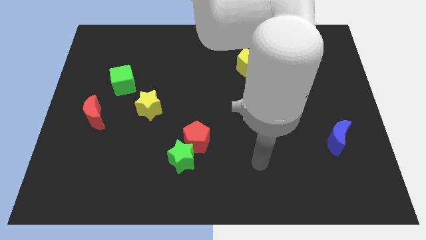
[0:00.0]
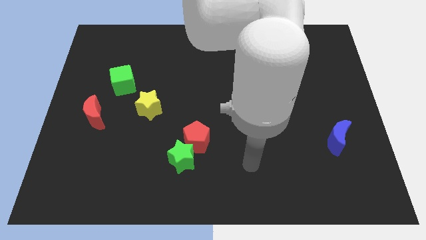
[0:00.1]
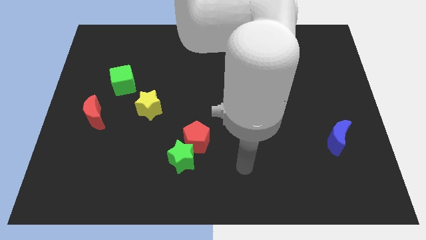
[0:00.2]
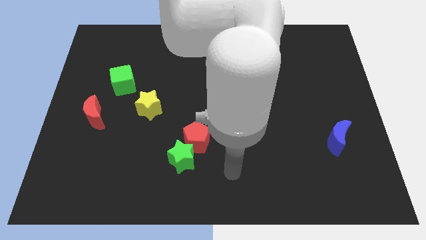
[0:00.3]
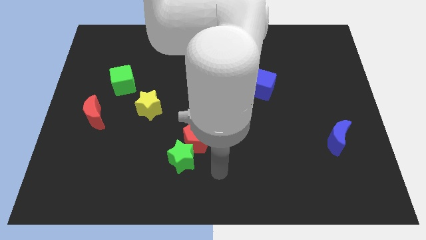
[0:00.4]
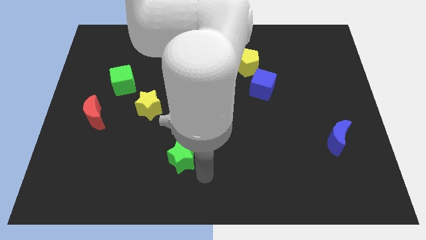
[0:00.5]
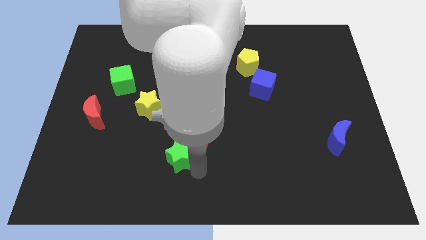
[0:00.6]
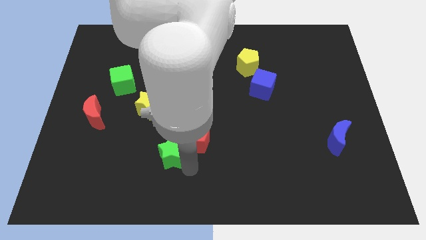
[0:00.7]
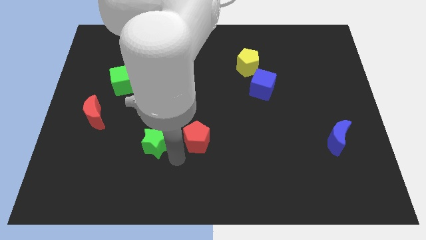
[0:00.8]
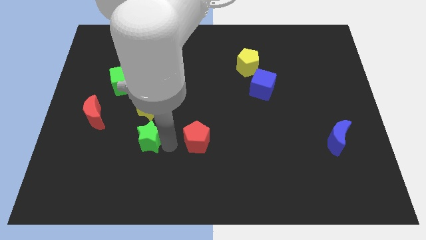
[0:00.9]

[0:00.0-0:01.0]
separate the red pentagon from the green star

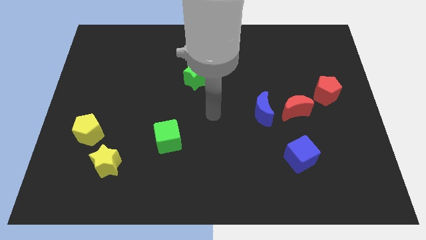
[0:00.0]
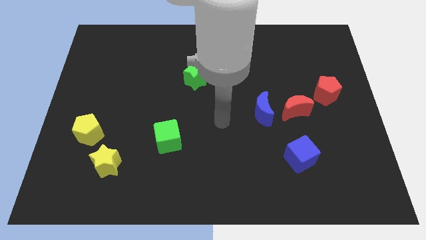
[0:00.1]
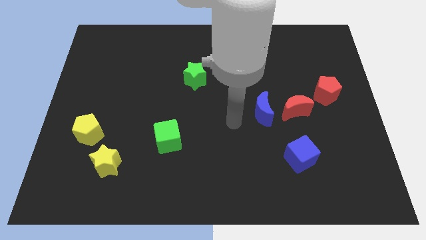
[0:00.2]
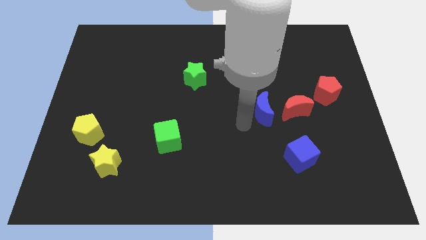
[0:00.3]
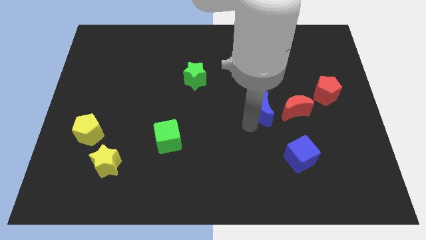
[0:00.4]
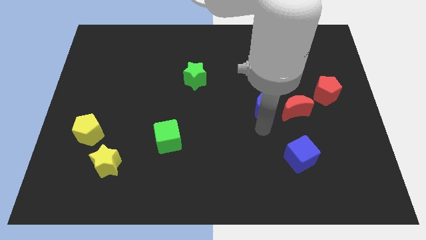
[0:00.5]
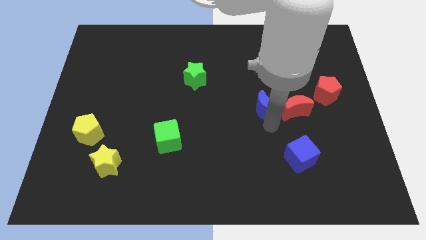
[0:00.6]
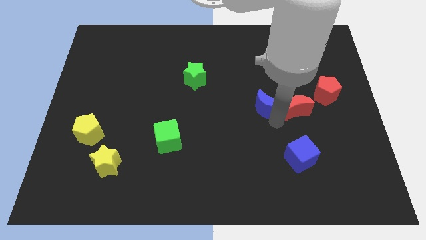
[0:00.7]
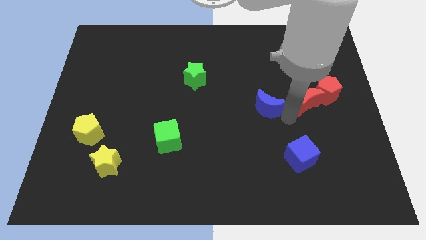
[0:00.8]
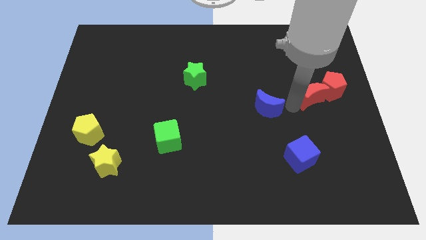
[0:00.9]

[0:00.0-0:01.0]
move the blue moon away from the red moon

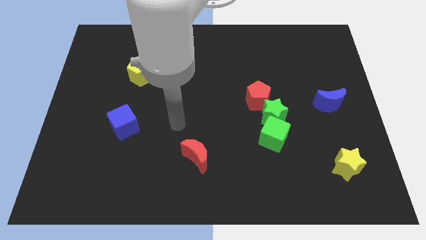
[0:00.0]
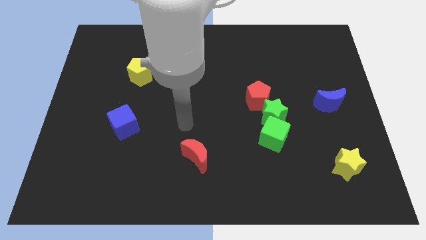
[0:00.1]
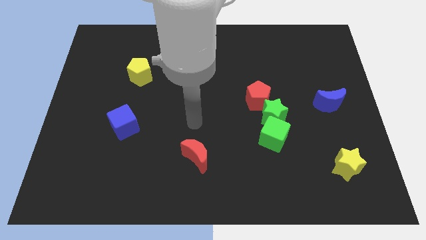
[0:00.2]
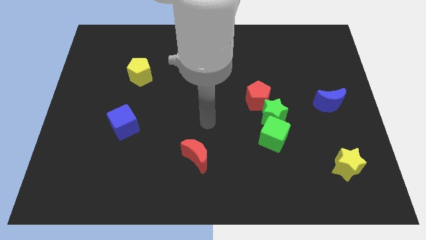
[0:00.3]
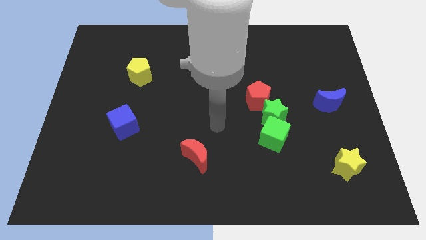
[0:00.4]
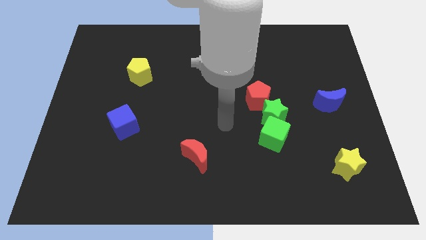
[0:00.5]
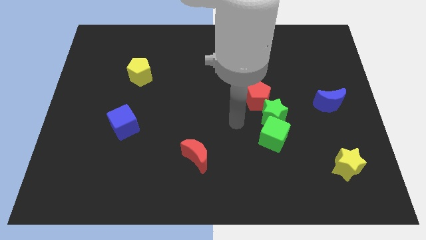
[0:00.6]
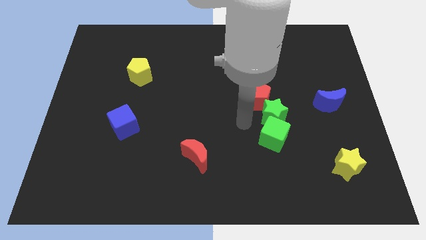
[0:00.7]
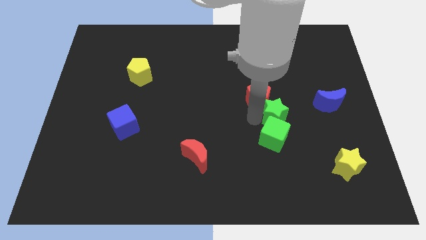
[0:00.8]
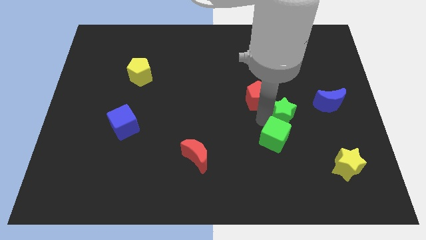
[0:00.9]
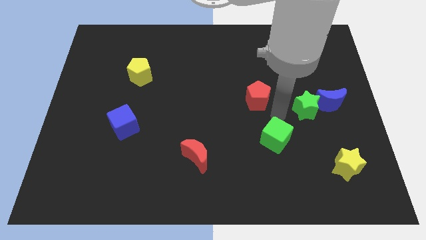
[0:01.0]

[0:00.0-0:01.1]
pull the red pentagon apart from the green star

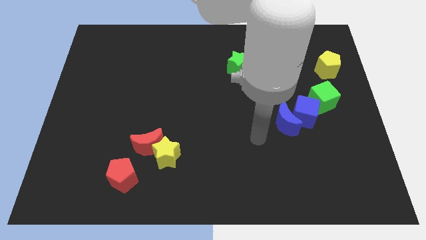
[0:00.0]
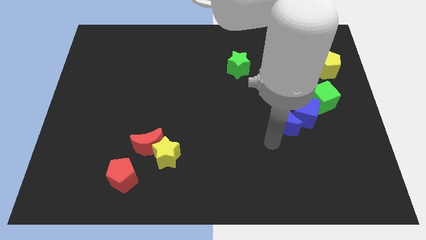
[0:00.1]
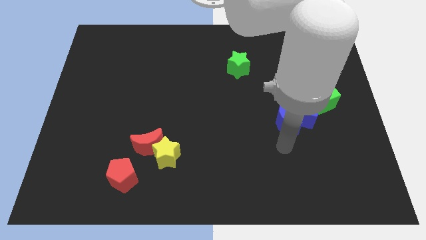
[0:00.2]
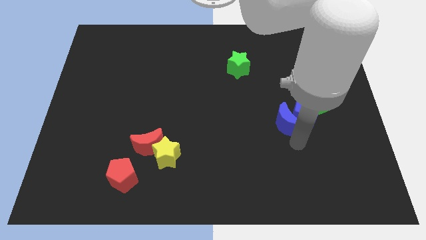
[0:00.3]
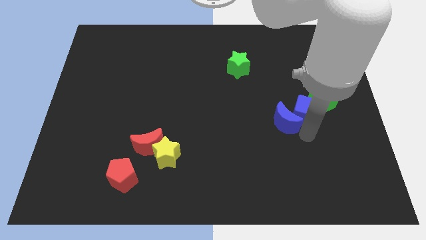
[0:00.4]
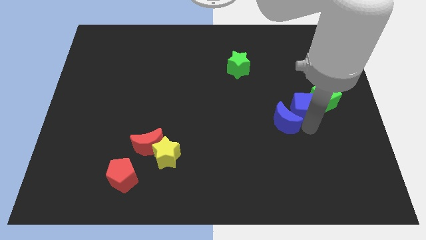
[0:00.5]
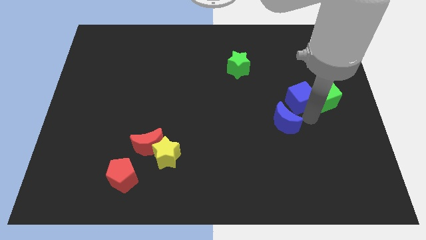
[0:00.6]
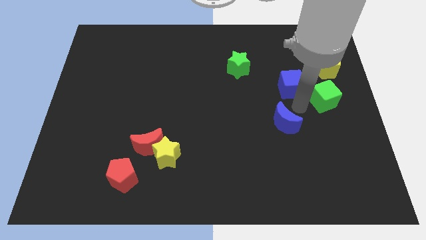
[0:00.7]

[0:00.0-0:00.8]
separate the blue moon from the blue cube

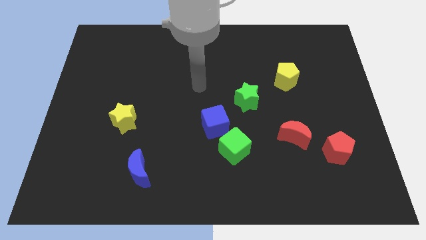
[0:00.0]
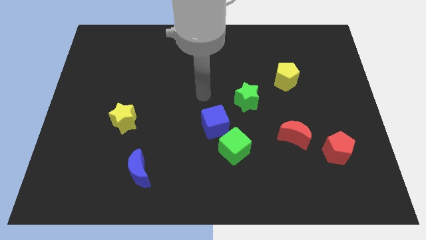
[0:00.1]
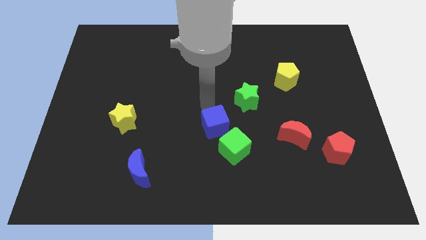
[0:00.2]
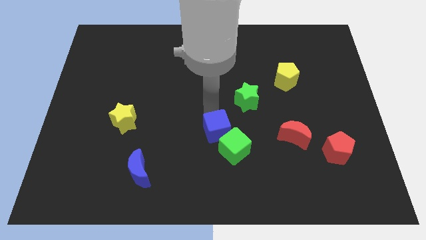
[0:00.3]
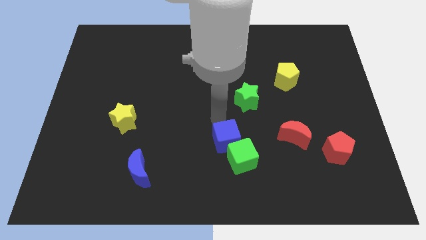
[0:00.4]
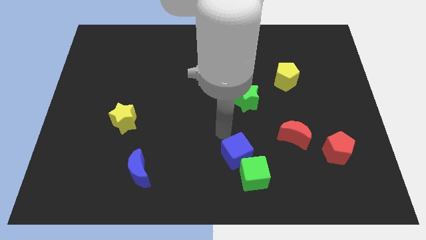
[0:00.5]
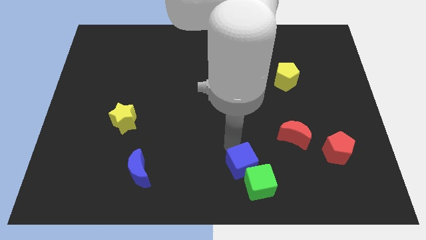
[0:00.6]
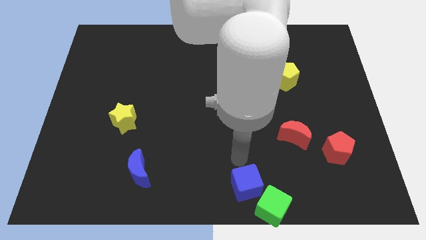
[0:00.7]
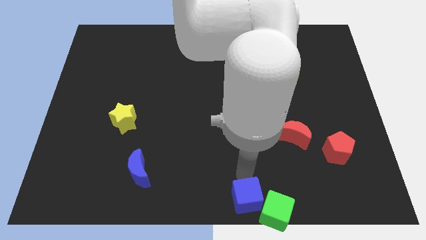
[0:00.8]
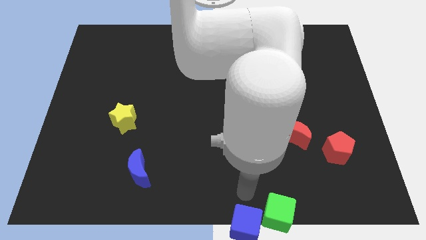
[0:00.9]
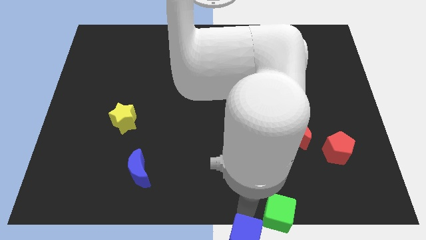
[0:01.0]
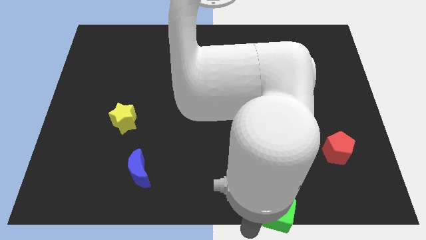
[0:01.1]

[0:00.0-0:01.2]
separate the green cube from the blue cube

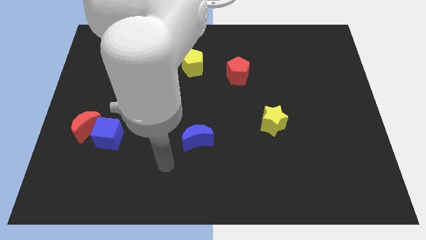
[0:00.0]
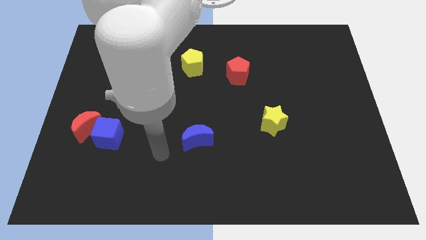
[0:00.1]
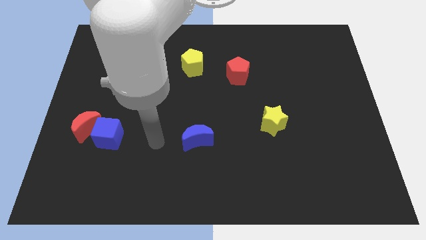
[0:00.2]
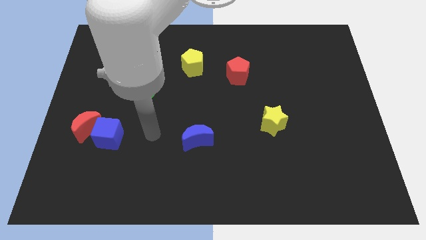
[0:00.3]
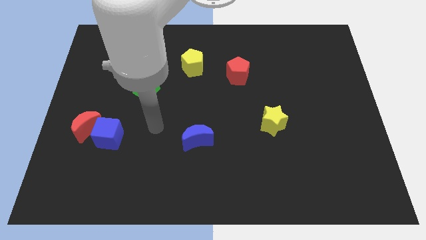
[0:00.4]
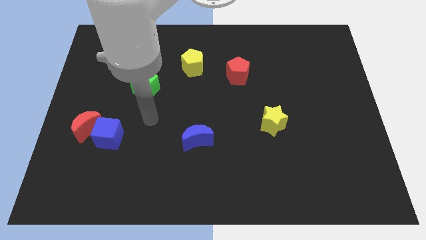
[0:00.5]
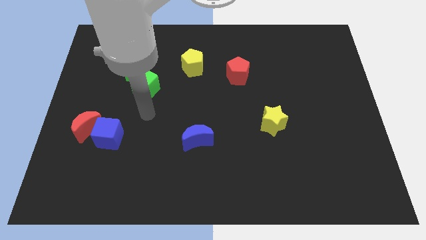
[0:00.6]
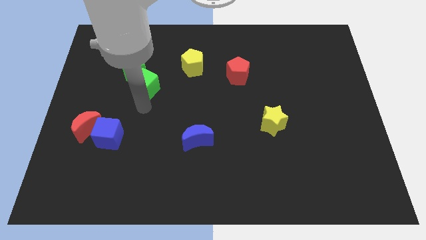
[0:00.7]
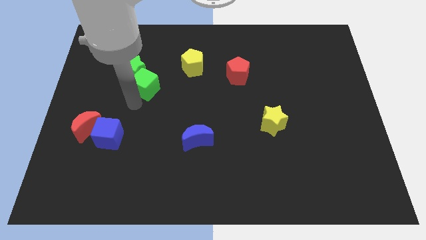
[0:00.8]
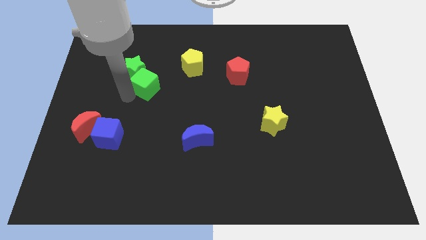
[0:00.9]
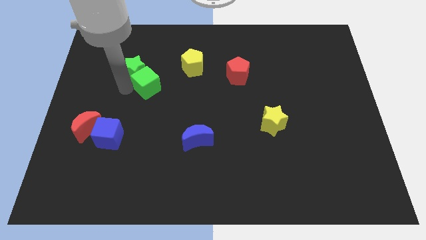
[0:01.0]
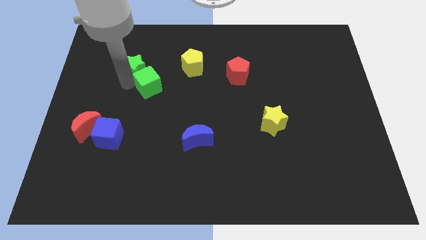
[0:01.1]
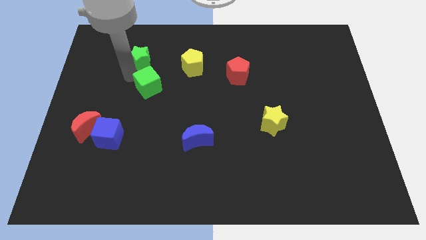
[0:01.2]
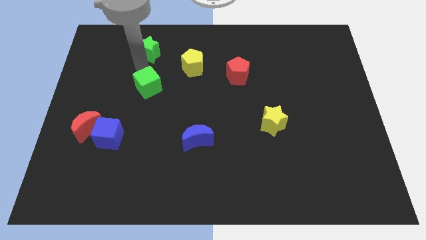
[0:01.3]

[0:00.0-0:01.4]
separate the green cube from the green star

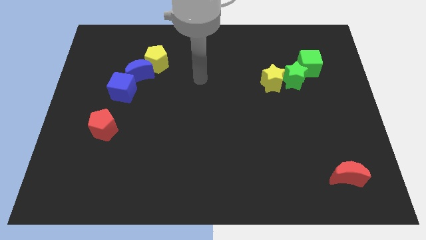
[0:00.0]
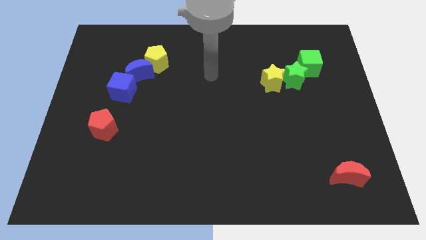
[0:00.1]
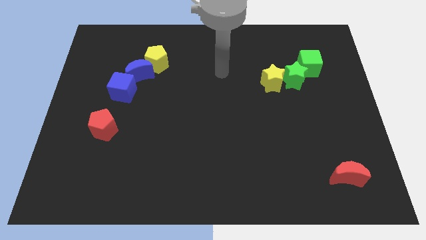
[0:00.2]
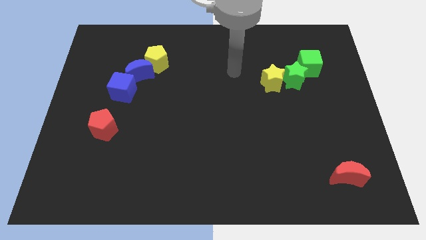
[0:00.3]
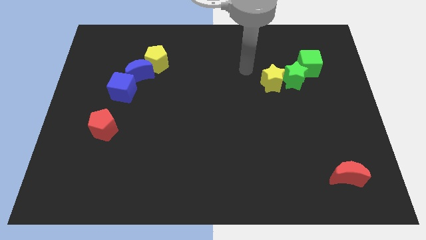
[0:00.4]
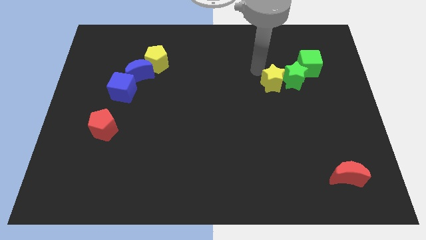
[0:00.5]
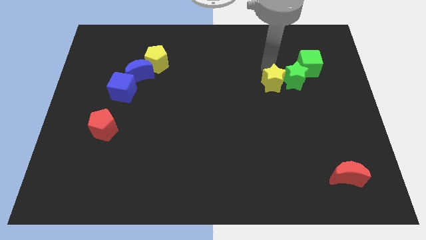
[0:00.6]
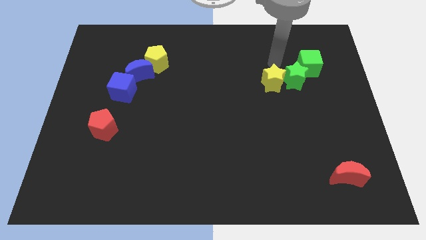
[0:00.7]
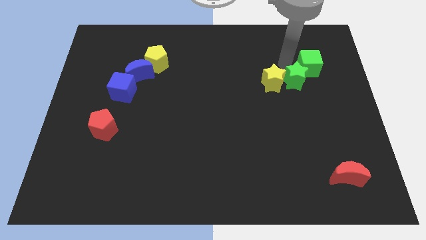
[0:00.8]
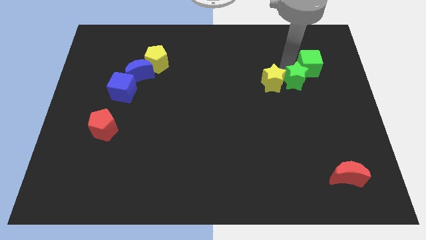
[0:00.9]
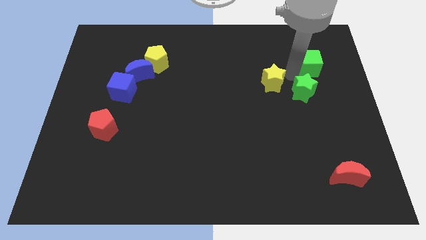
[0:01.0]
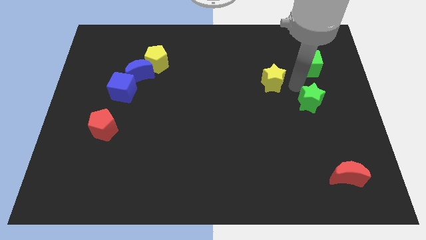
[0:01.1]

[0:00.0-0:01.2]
separate the yellow star from the green star

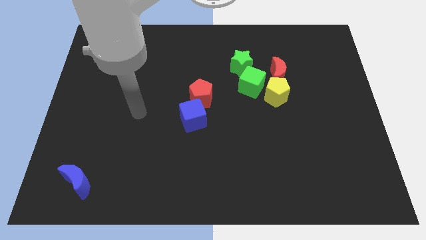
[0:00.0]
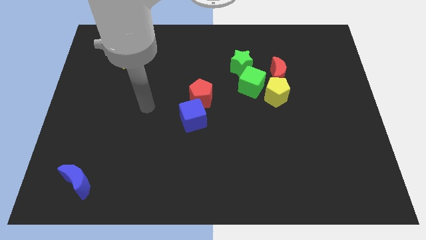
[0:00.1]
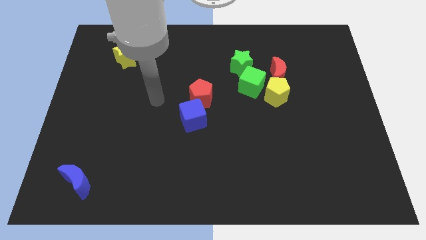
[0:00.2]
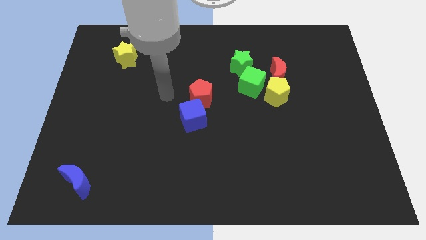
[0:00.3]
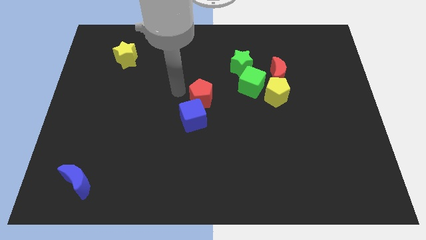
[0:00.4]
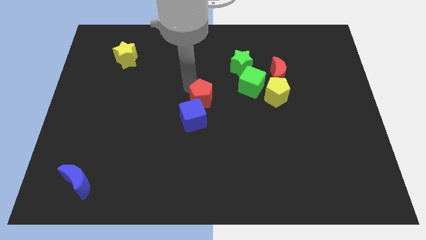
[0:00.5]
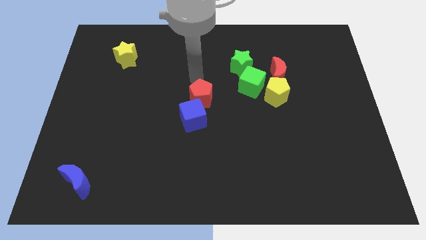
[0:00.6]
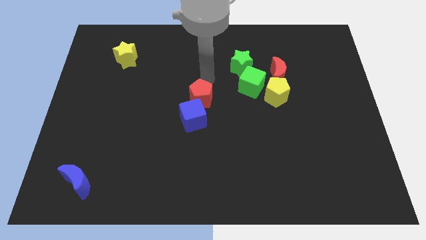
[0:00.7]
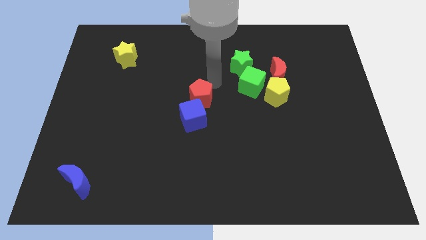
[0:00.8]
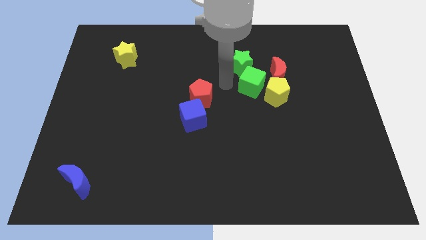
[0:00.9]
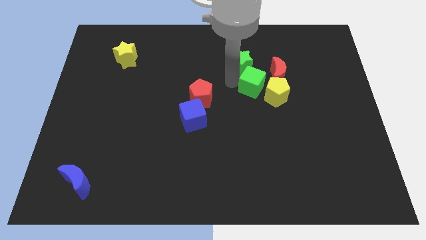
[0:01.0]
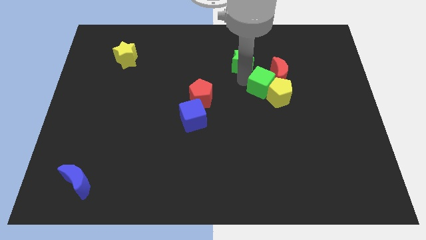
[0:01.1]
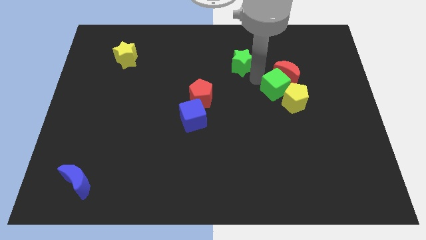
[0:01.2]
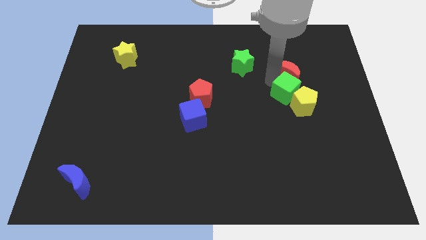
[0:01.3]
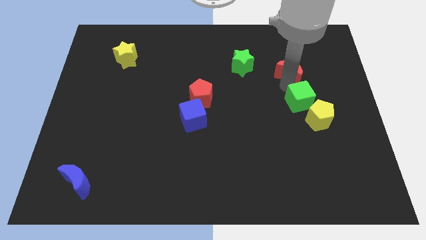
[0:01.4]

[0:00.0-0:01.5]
separate the yellow pentagon from the red moon and green cube

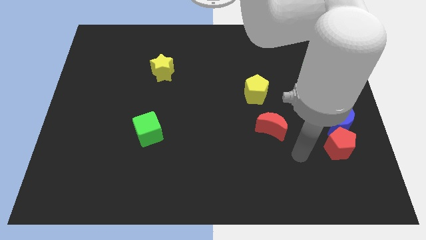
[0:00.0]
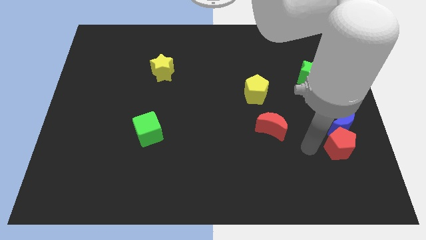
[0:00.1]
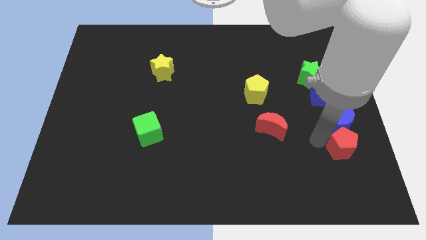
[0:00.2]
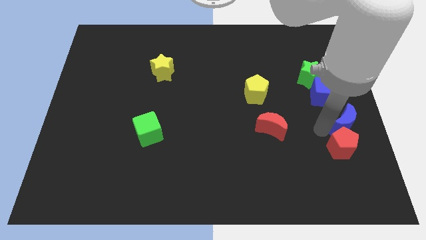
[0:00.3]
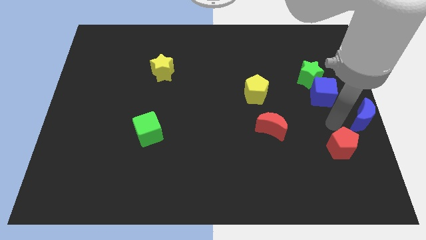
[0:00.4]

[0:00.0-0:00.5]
pull the red pentagon apart from the blue moon
